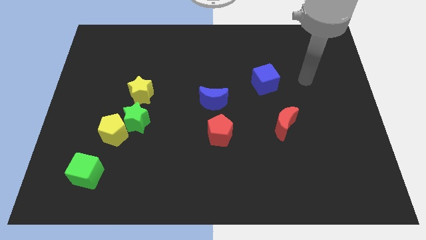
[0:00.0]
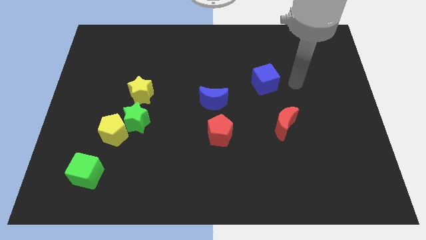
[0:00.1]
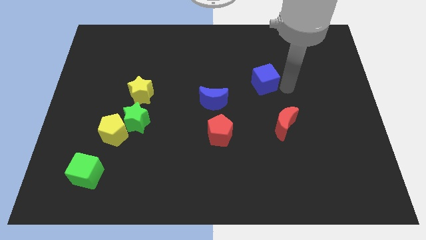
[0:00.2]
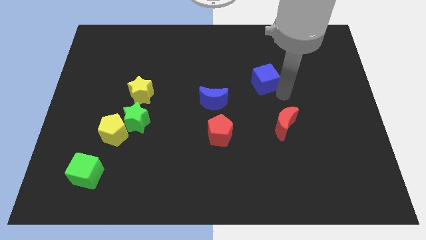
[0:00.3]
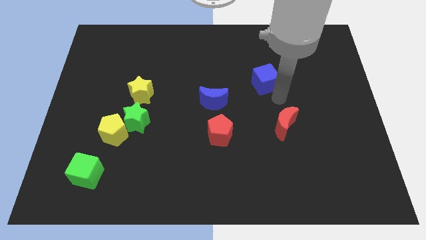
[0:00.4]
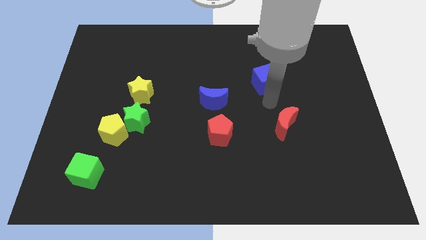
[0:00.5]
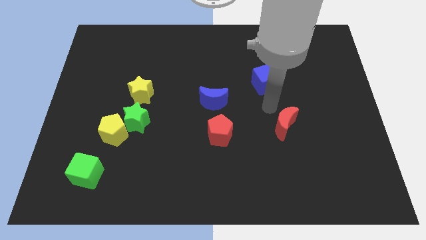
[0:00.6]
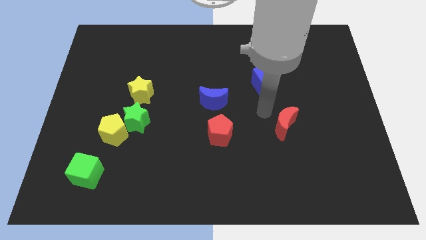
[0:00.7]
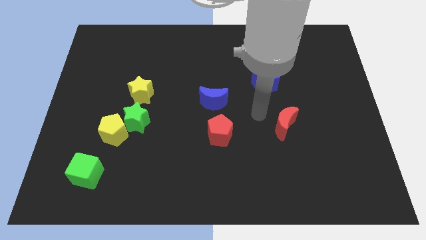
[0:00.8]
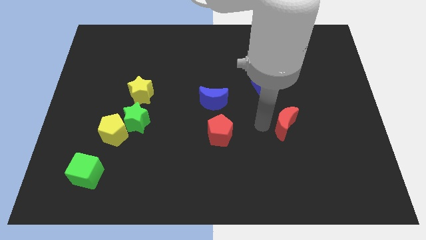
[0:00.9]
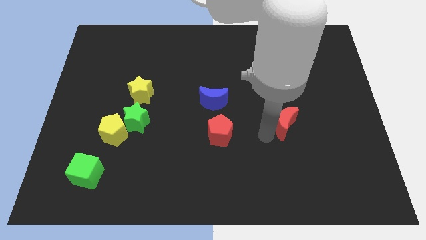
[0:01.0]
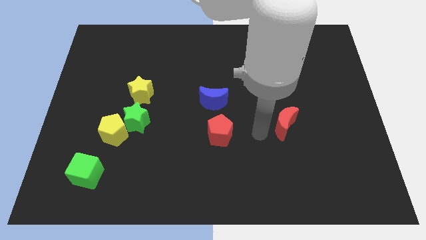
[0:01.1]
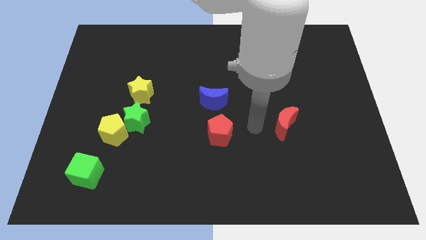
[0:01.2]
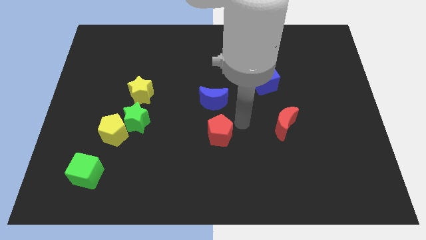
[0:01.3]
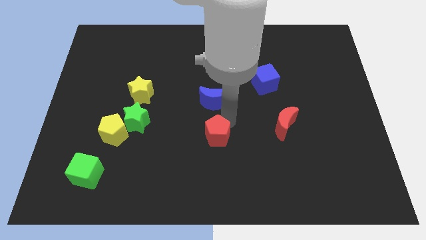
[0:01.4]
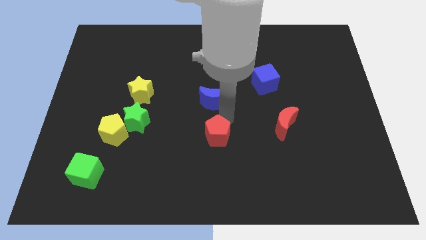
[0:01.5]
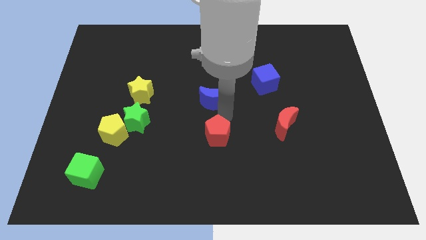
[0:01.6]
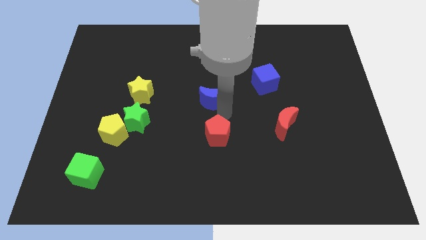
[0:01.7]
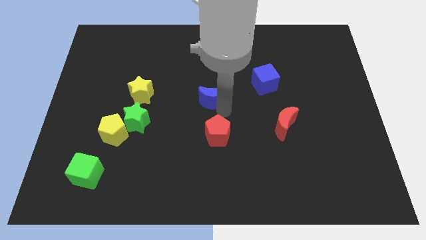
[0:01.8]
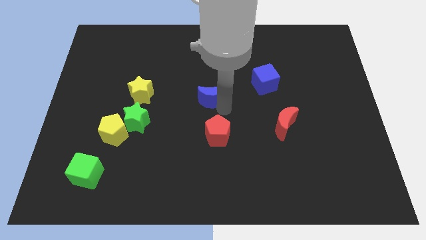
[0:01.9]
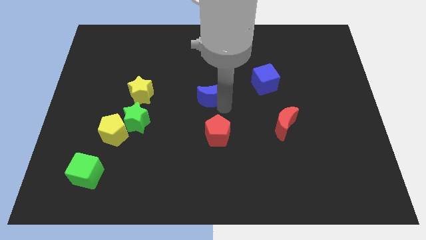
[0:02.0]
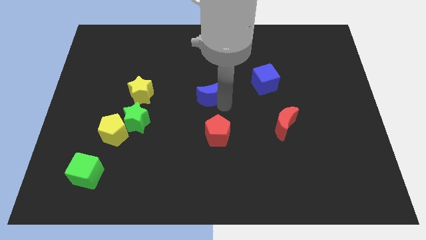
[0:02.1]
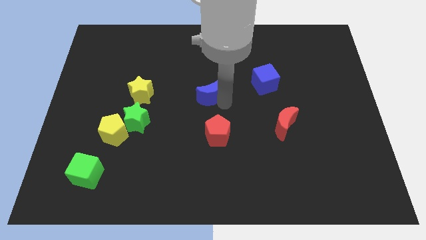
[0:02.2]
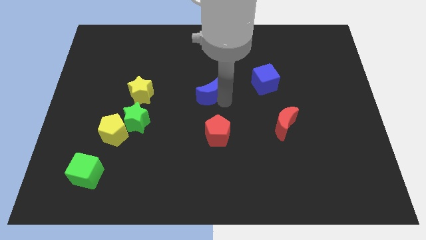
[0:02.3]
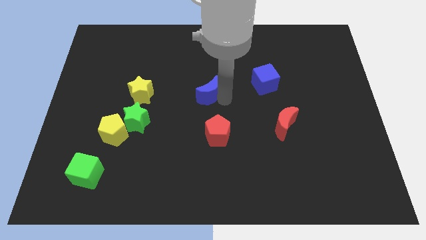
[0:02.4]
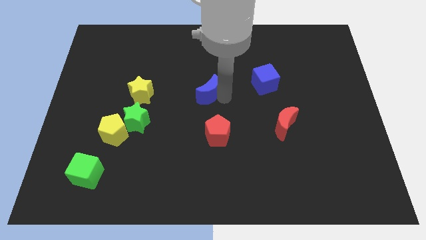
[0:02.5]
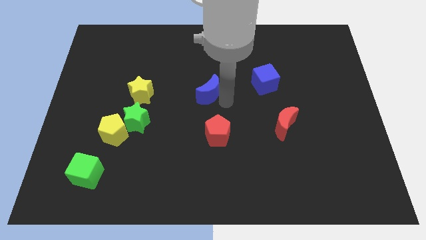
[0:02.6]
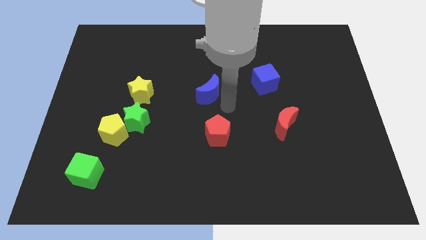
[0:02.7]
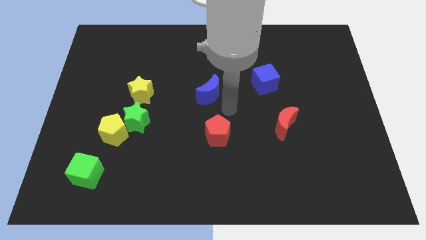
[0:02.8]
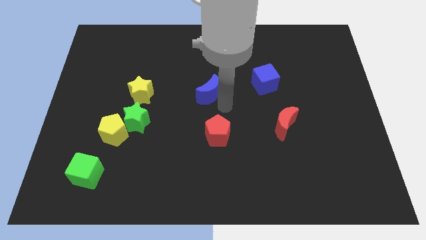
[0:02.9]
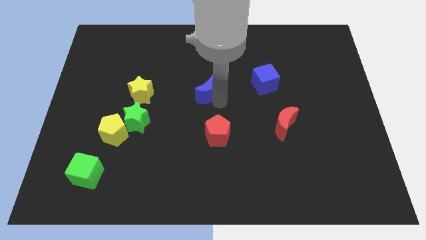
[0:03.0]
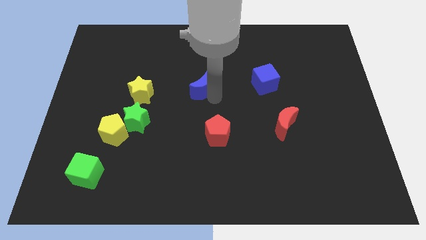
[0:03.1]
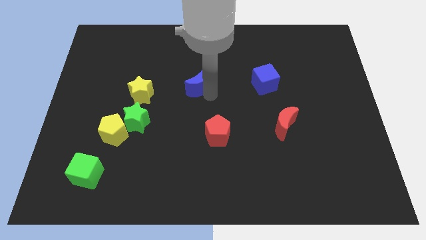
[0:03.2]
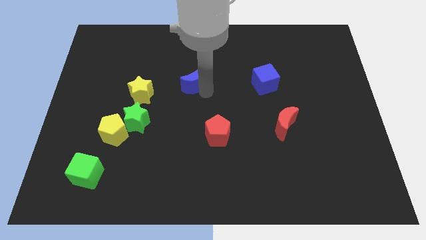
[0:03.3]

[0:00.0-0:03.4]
slide the blue moon somewhat upwards and then to the left

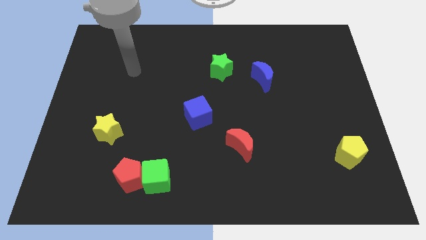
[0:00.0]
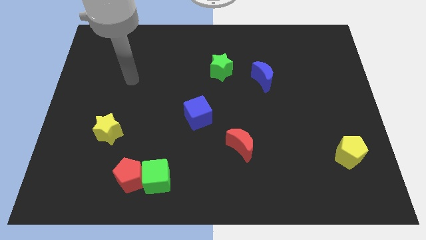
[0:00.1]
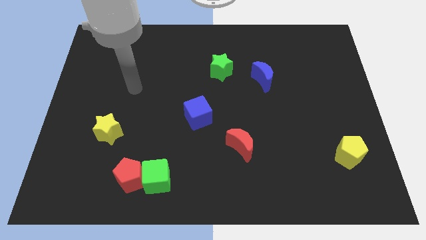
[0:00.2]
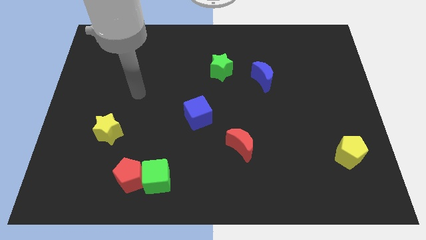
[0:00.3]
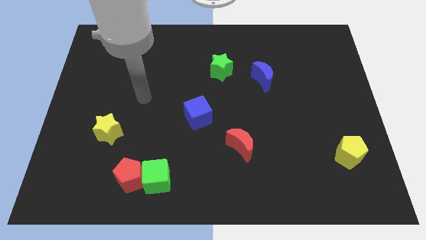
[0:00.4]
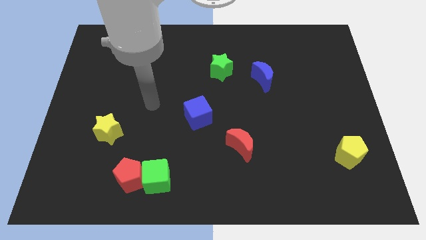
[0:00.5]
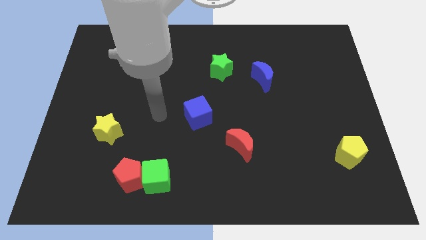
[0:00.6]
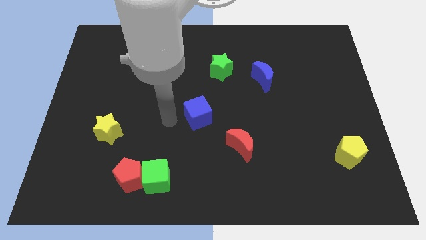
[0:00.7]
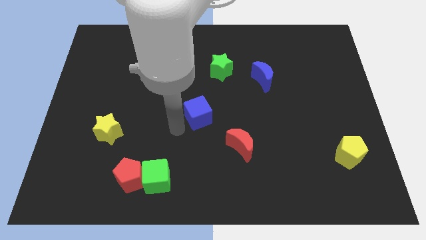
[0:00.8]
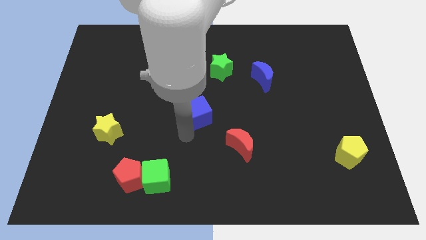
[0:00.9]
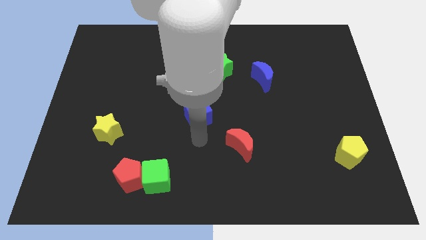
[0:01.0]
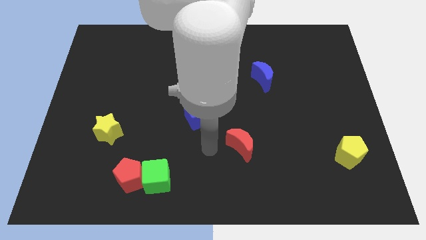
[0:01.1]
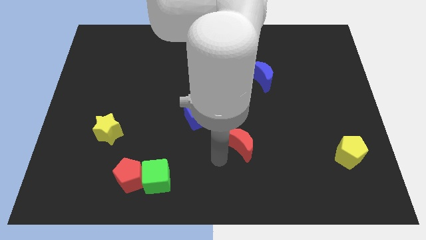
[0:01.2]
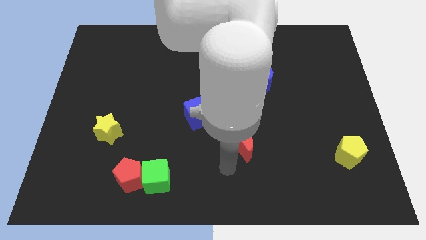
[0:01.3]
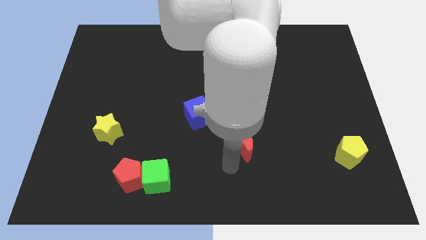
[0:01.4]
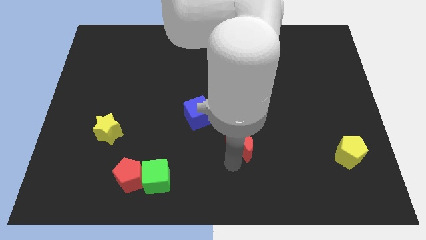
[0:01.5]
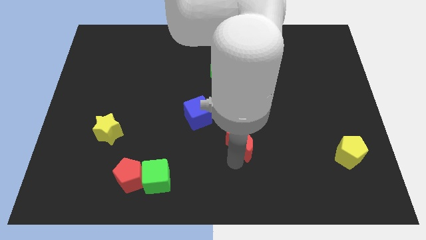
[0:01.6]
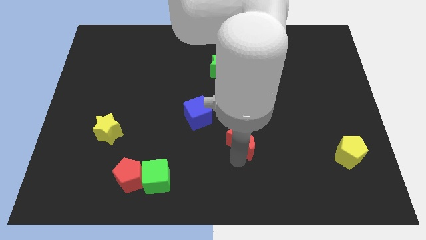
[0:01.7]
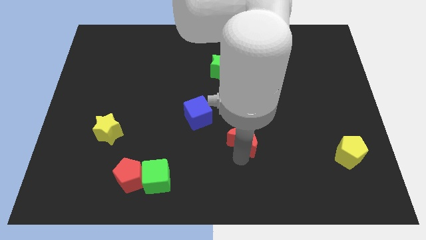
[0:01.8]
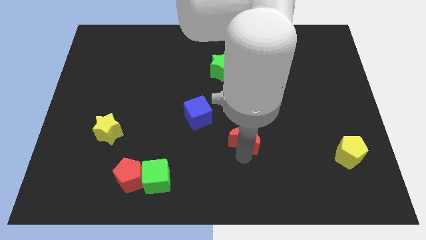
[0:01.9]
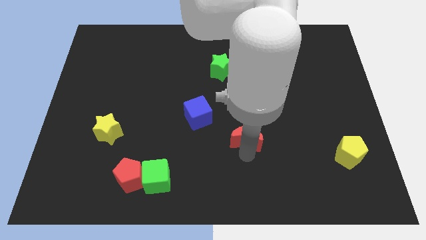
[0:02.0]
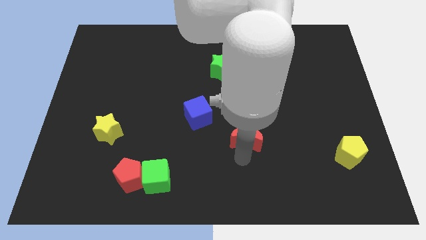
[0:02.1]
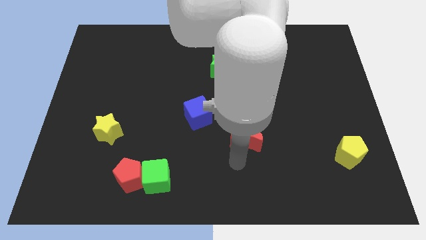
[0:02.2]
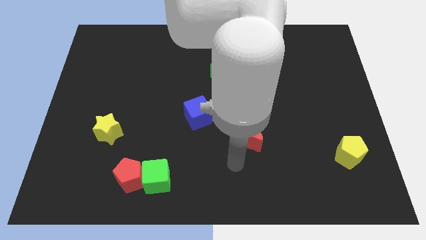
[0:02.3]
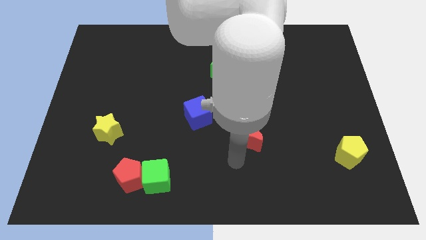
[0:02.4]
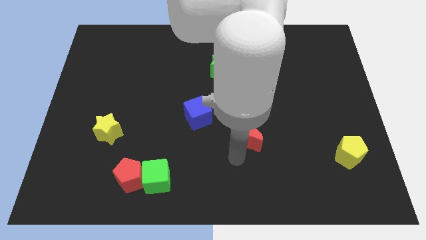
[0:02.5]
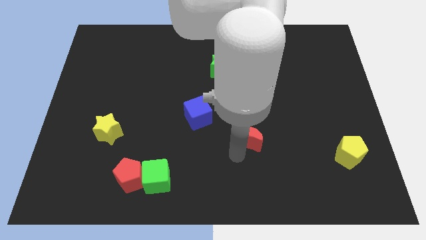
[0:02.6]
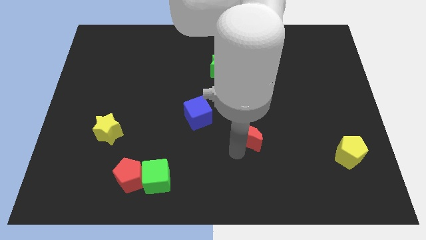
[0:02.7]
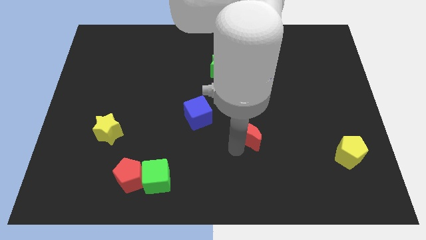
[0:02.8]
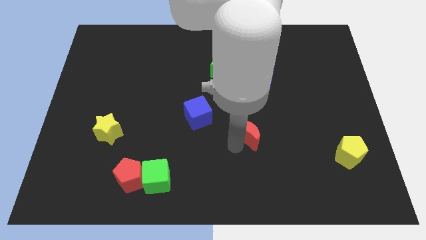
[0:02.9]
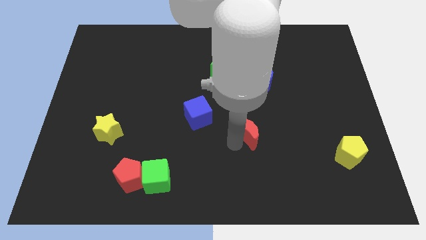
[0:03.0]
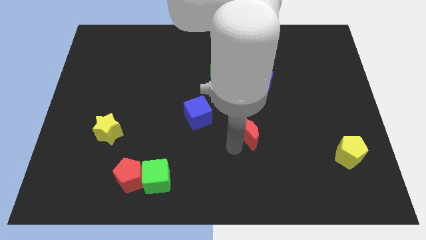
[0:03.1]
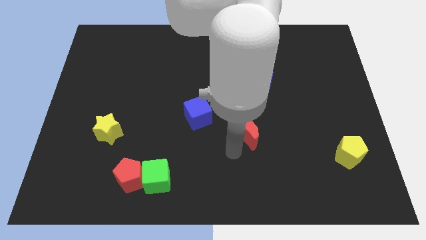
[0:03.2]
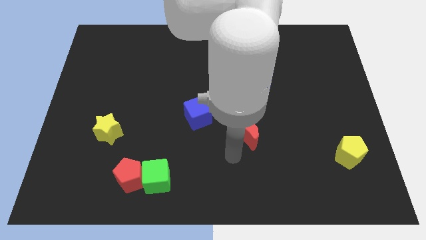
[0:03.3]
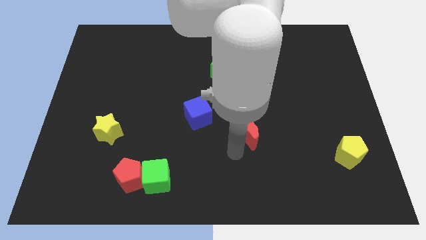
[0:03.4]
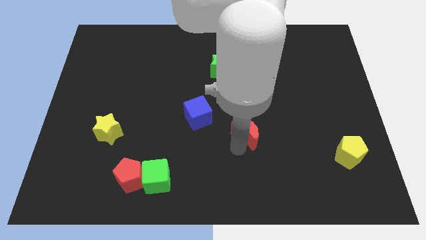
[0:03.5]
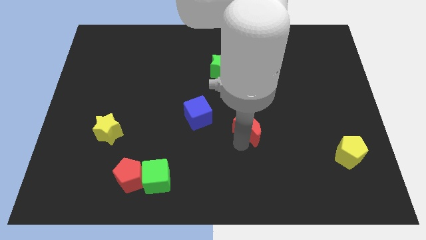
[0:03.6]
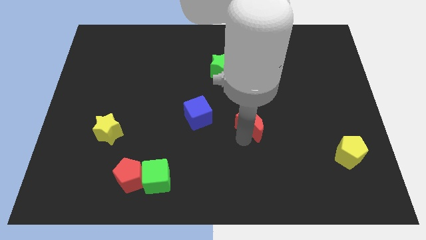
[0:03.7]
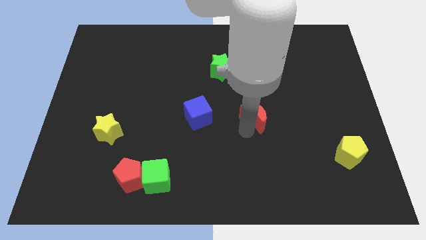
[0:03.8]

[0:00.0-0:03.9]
slide the red moon diagonally upwards and to the right a little bit

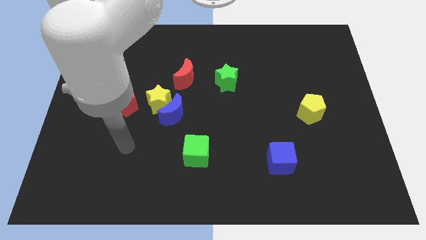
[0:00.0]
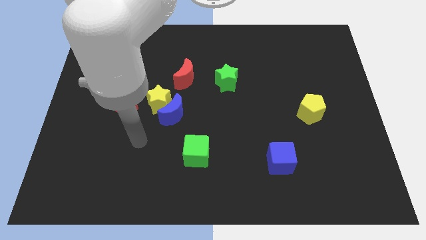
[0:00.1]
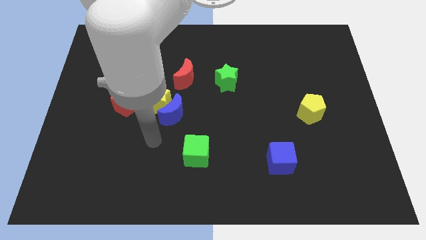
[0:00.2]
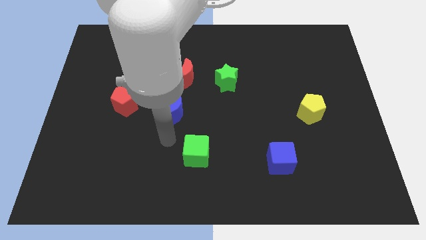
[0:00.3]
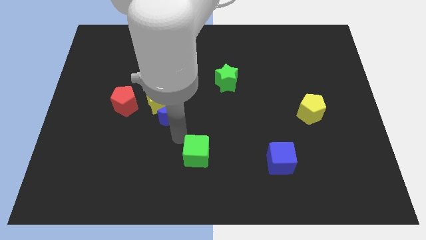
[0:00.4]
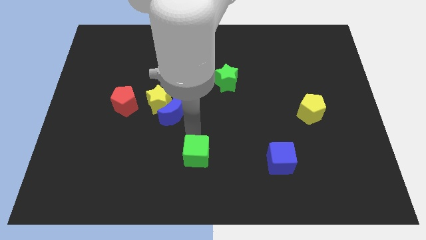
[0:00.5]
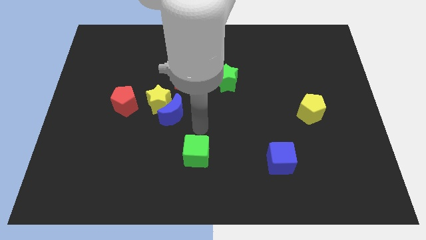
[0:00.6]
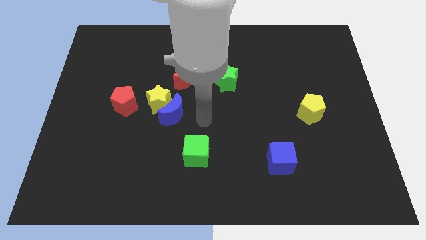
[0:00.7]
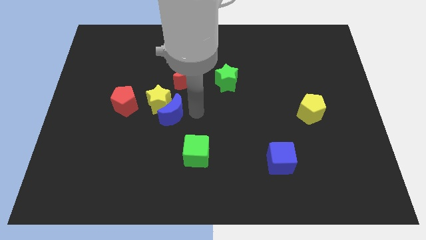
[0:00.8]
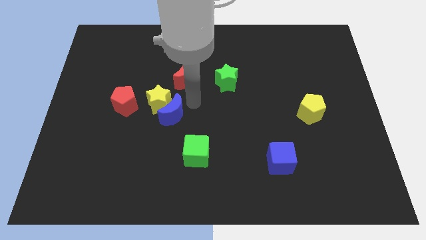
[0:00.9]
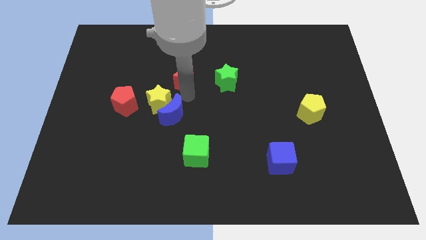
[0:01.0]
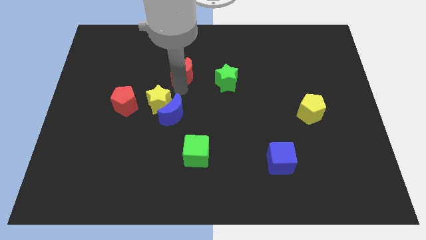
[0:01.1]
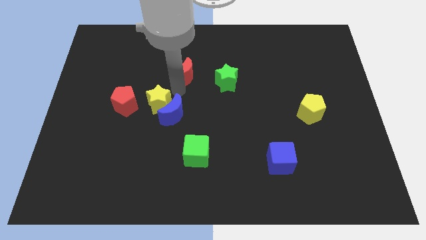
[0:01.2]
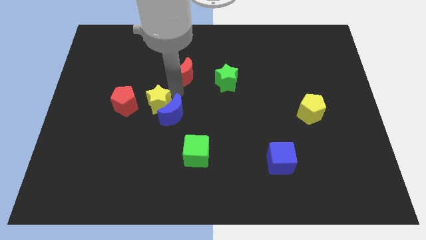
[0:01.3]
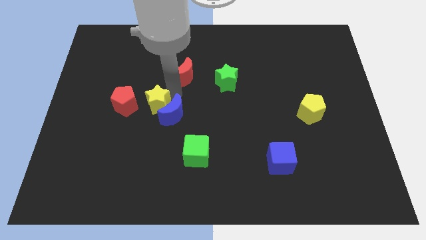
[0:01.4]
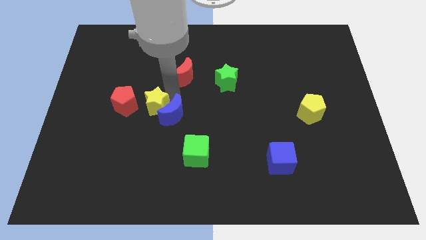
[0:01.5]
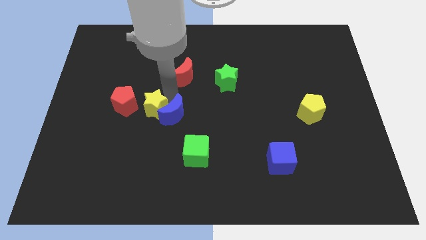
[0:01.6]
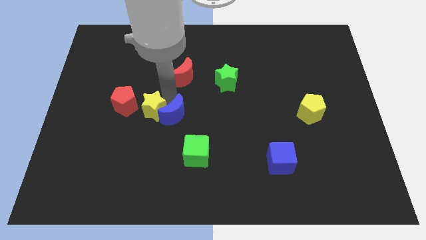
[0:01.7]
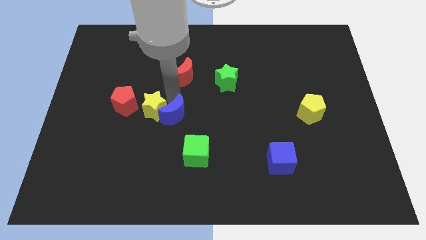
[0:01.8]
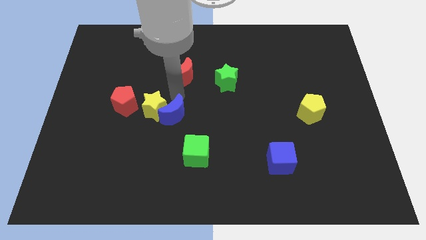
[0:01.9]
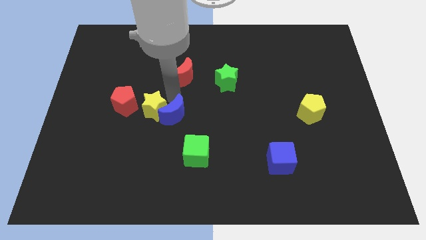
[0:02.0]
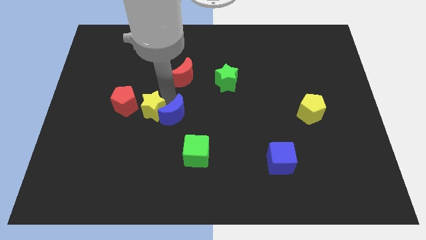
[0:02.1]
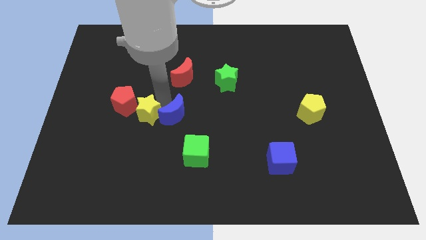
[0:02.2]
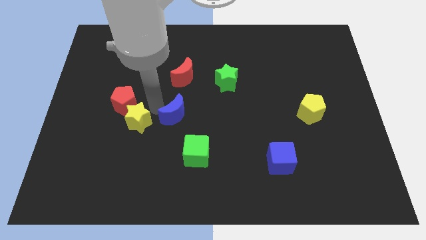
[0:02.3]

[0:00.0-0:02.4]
move the yellow star a little bit down and to the left diagonally
